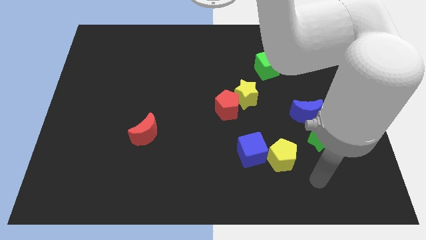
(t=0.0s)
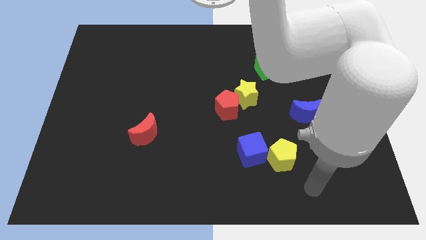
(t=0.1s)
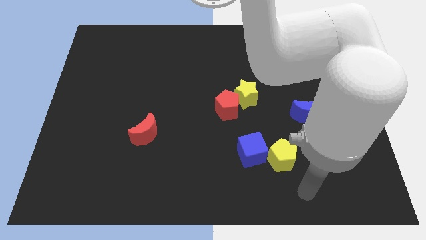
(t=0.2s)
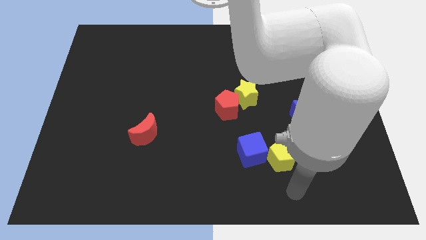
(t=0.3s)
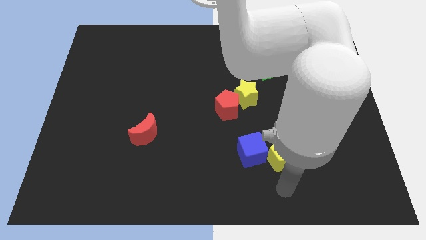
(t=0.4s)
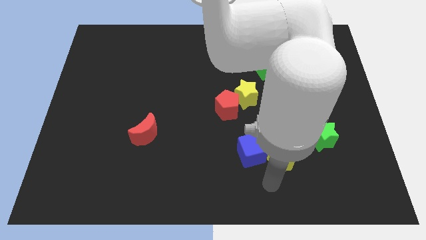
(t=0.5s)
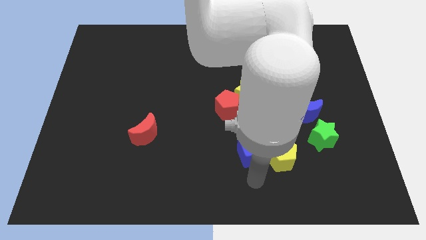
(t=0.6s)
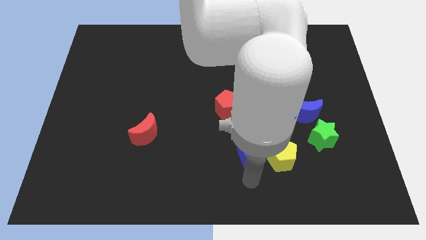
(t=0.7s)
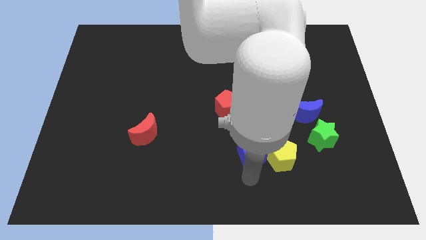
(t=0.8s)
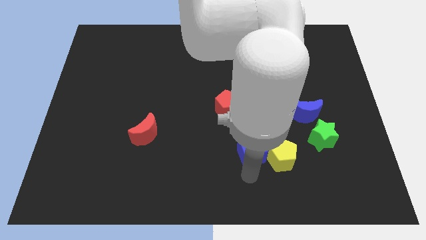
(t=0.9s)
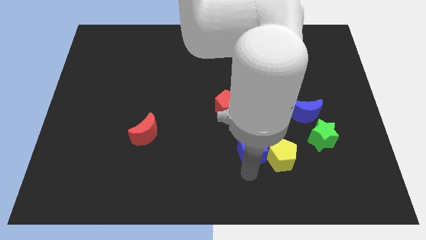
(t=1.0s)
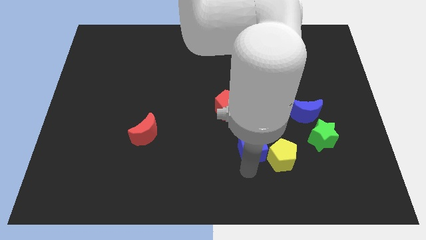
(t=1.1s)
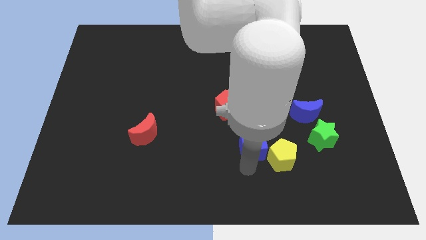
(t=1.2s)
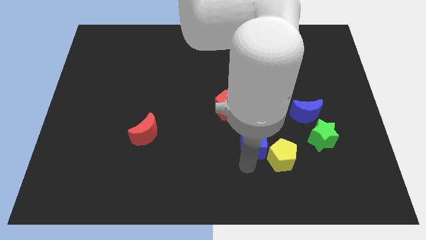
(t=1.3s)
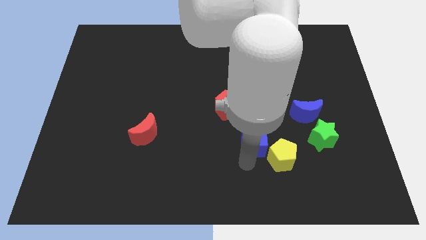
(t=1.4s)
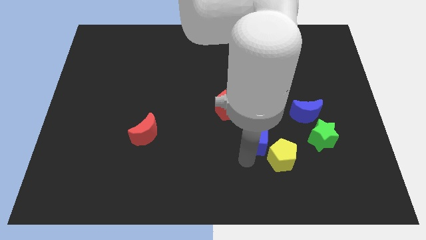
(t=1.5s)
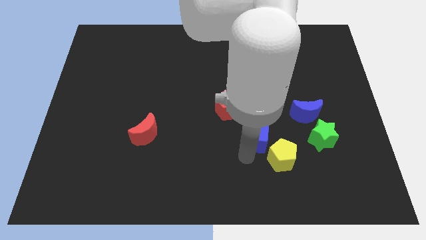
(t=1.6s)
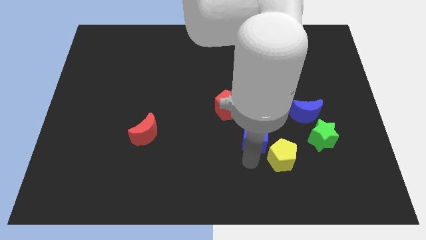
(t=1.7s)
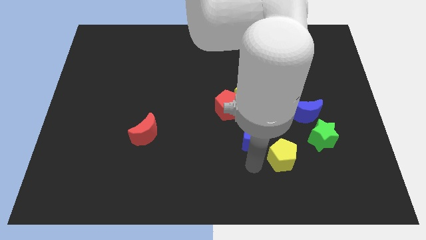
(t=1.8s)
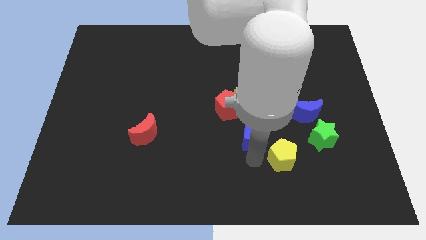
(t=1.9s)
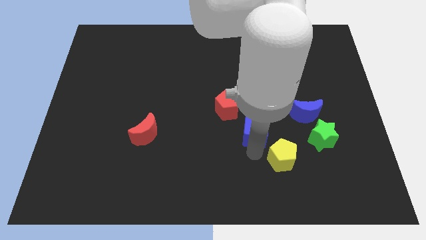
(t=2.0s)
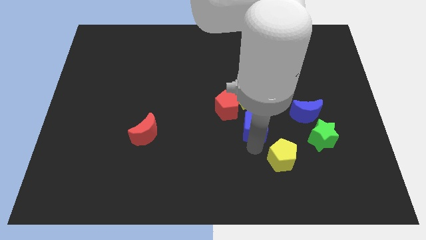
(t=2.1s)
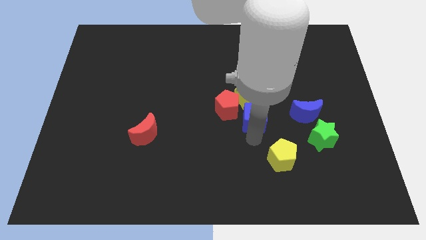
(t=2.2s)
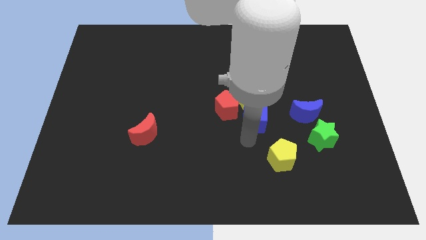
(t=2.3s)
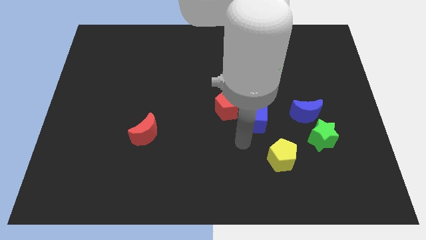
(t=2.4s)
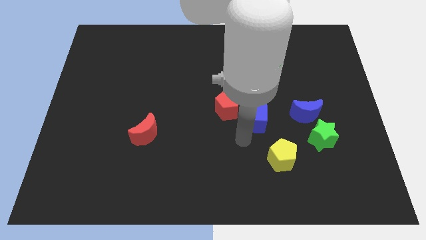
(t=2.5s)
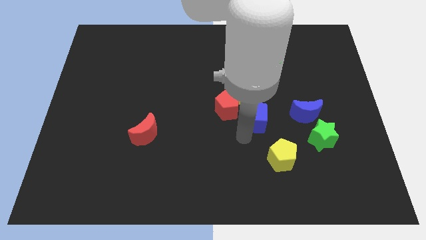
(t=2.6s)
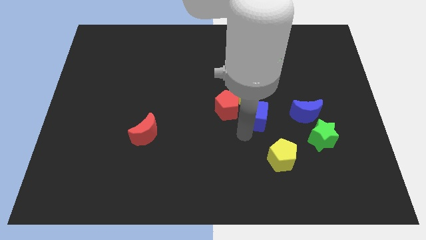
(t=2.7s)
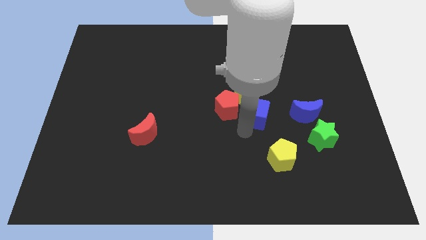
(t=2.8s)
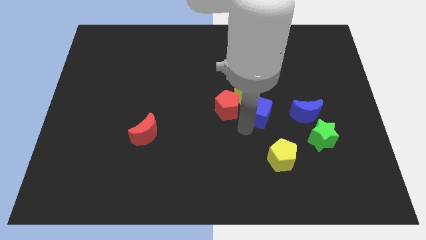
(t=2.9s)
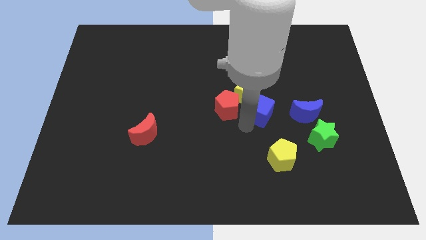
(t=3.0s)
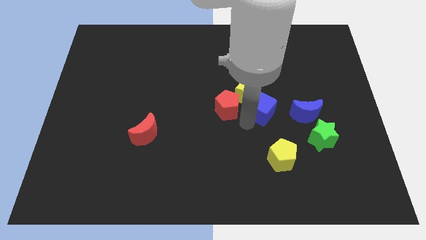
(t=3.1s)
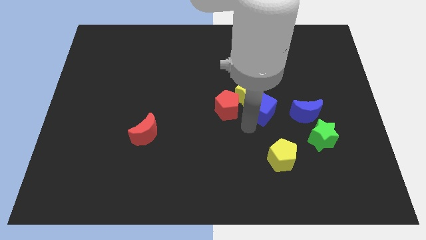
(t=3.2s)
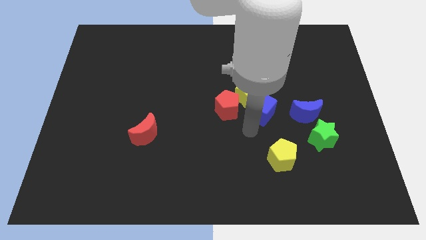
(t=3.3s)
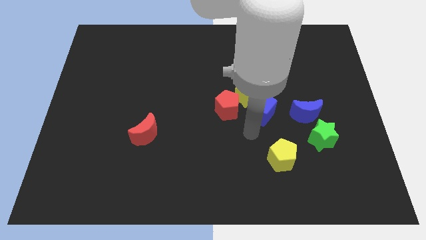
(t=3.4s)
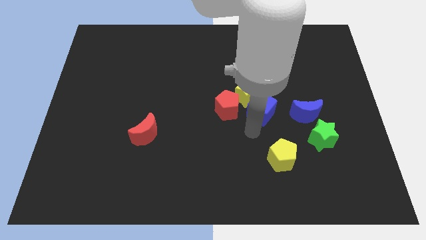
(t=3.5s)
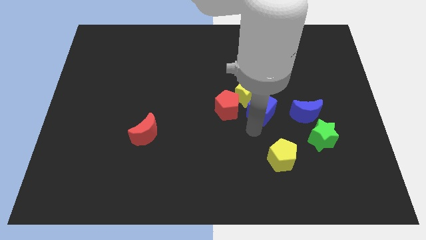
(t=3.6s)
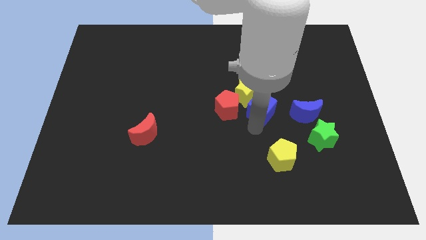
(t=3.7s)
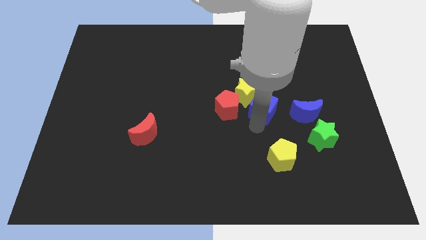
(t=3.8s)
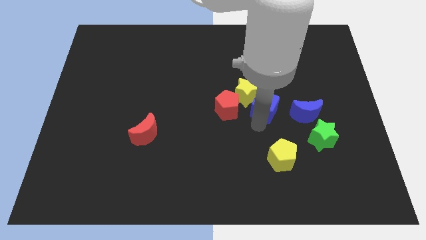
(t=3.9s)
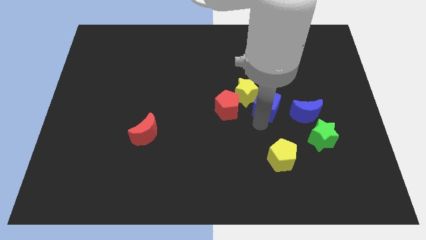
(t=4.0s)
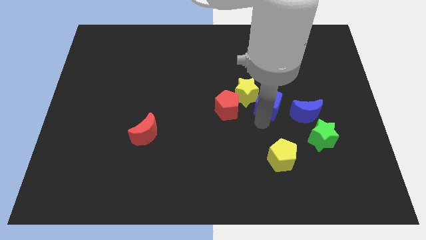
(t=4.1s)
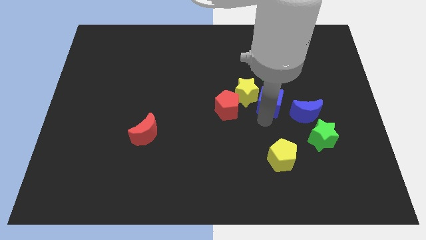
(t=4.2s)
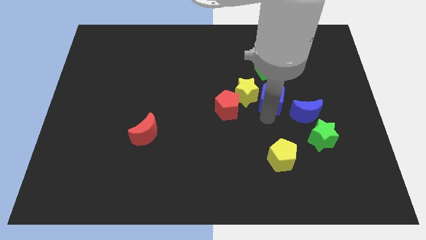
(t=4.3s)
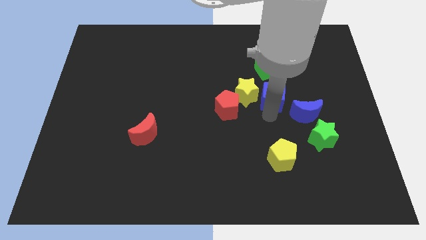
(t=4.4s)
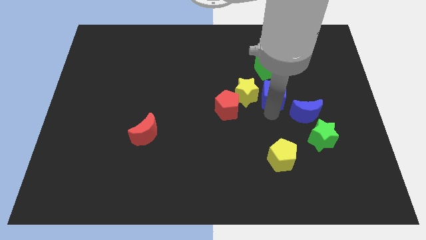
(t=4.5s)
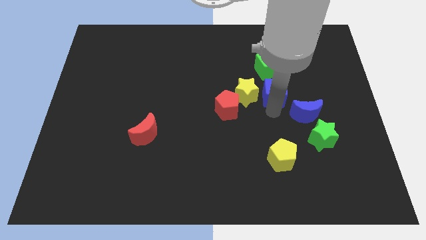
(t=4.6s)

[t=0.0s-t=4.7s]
move the blue cube to the top right of the yellow star

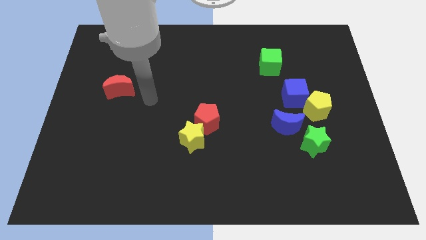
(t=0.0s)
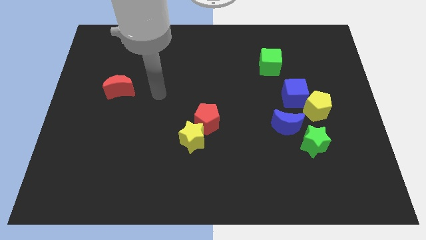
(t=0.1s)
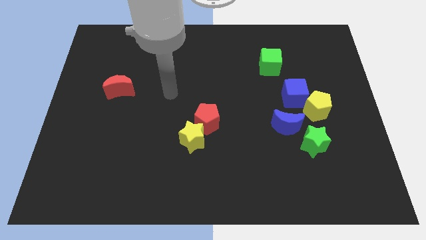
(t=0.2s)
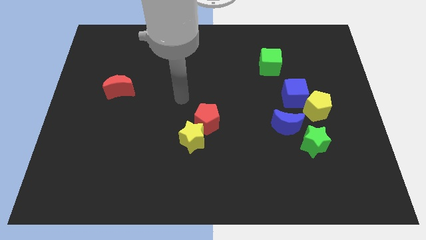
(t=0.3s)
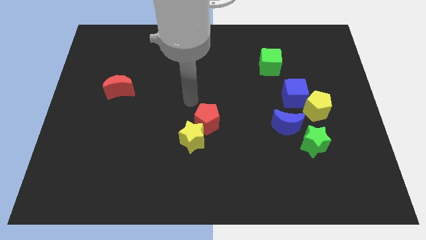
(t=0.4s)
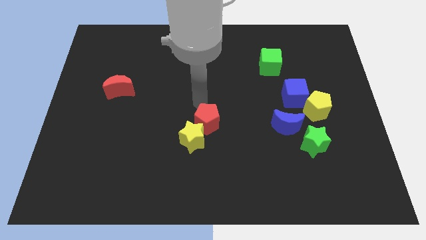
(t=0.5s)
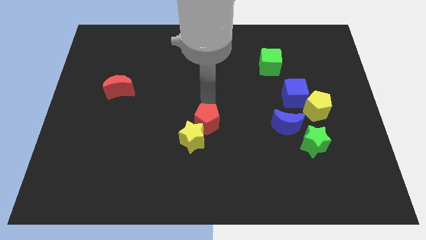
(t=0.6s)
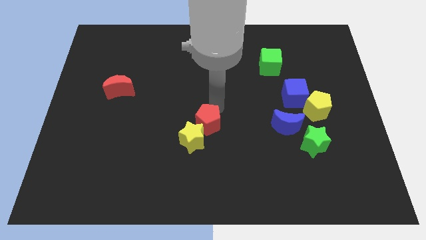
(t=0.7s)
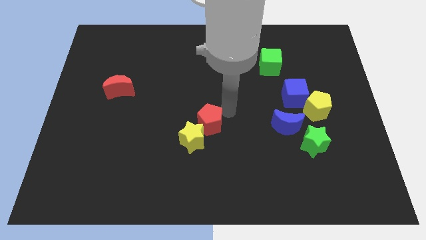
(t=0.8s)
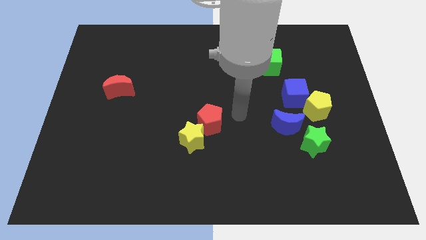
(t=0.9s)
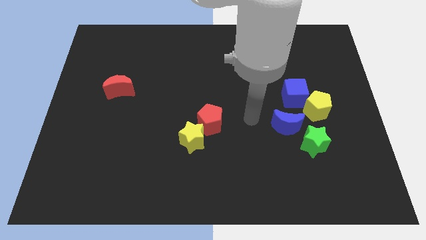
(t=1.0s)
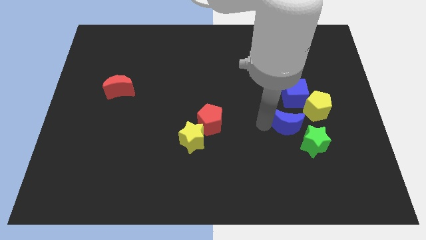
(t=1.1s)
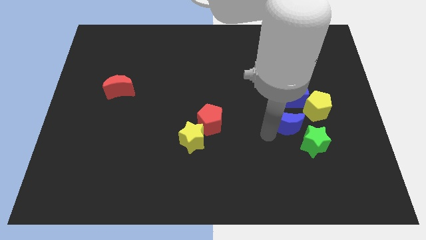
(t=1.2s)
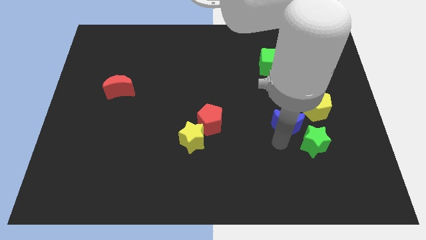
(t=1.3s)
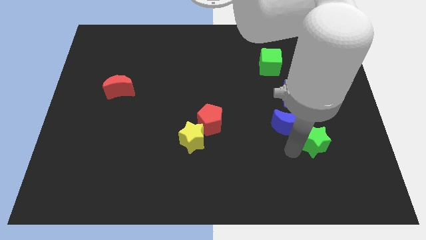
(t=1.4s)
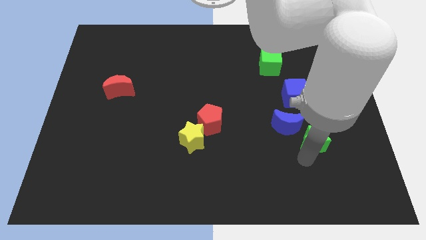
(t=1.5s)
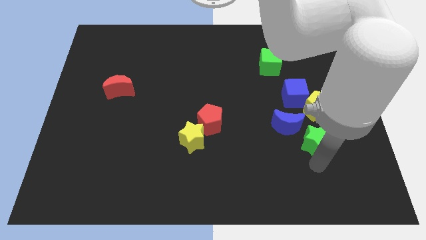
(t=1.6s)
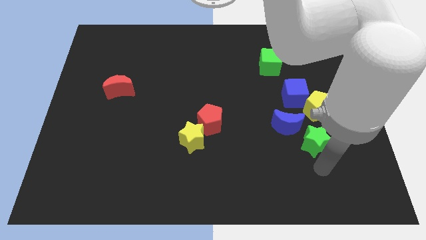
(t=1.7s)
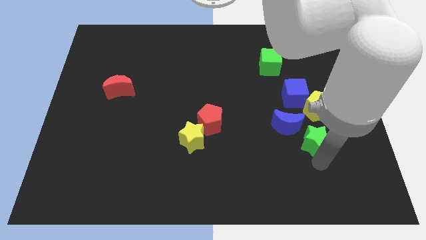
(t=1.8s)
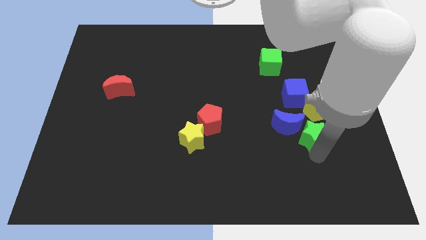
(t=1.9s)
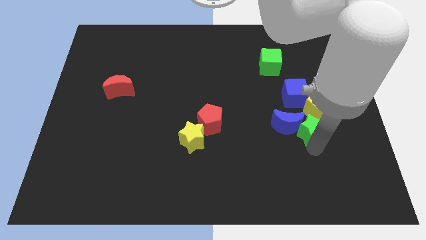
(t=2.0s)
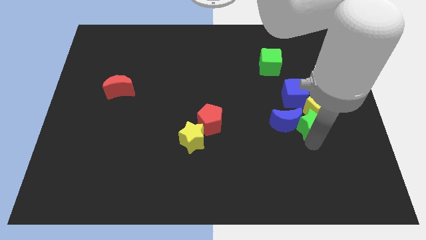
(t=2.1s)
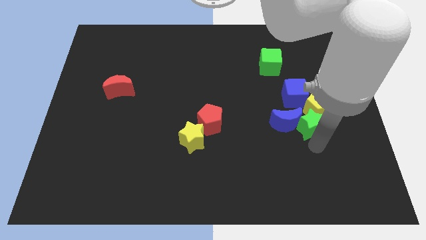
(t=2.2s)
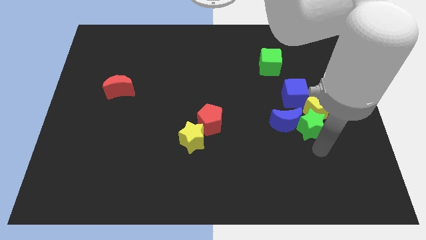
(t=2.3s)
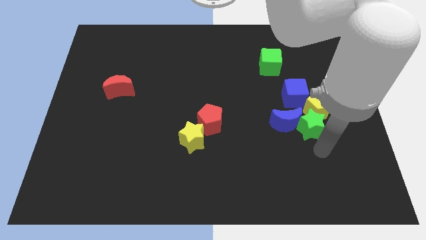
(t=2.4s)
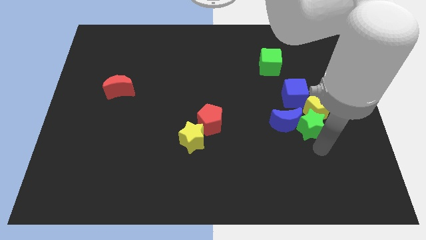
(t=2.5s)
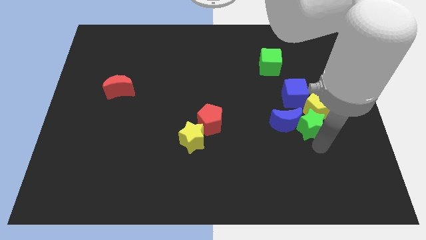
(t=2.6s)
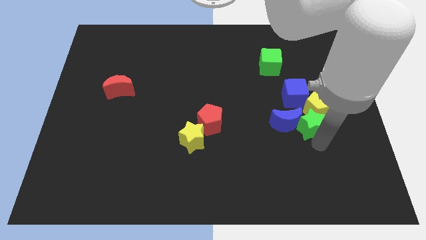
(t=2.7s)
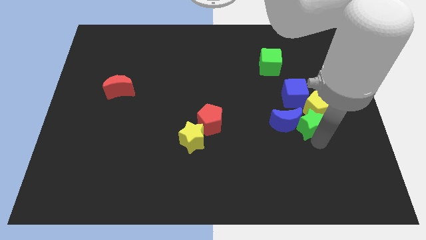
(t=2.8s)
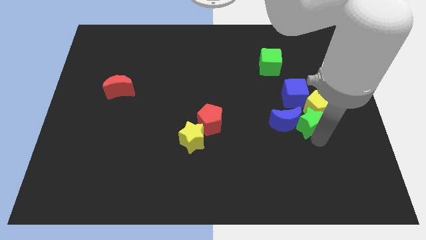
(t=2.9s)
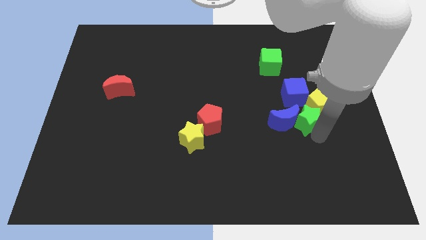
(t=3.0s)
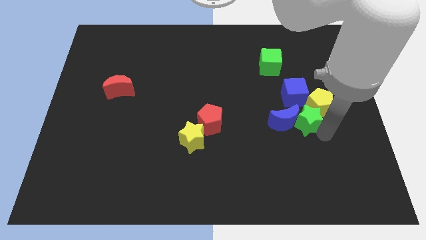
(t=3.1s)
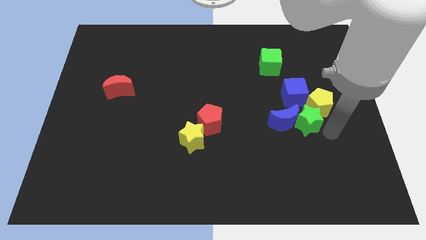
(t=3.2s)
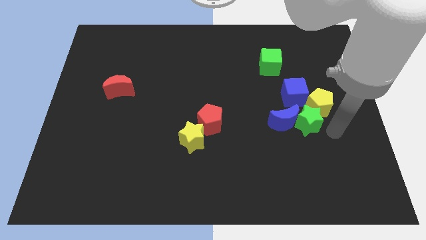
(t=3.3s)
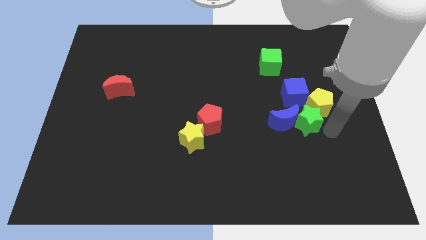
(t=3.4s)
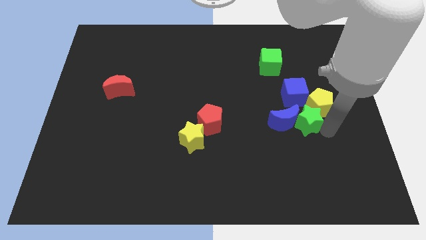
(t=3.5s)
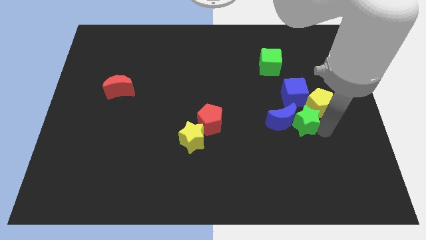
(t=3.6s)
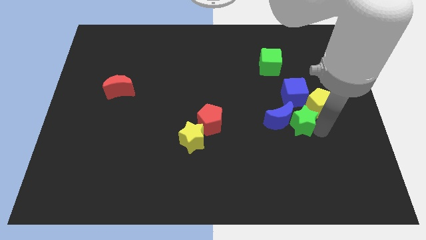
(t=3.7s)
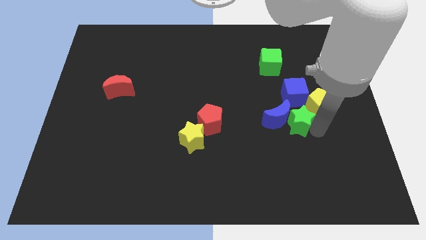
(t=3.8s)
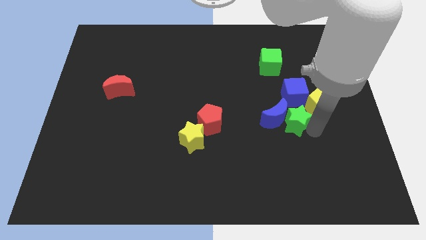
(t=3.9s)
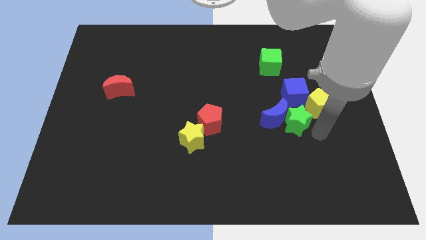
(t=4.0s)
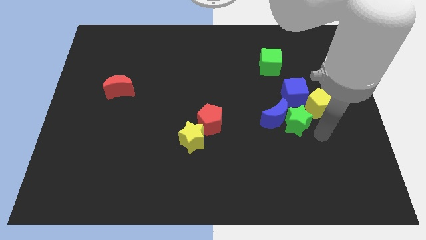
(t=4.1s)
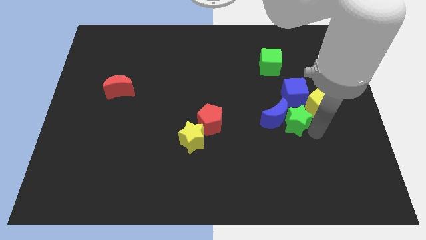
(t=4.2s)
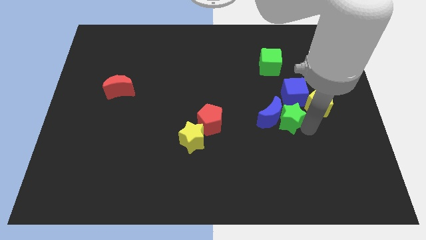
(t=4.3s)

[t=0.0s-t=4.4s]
push the green star to the bottom left side of the blue cube
